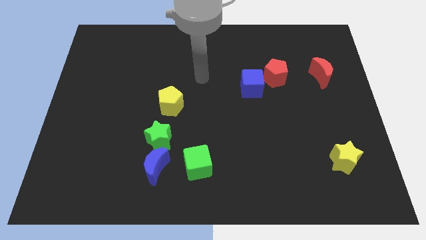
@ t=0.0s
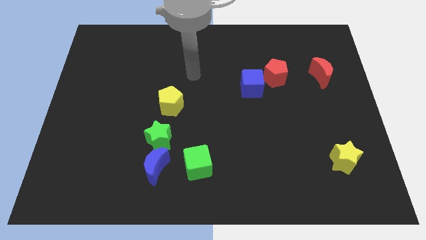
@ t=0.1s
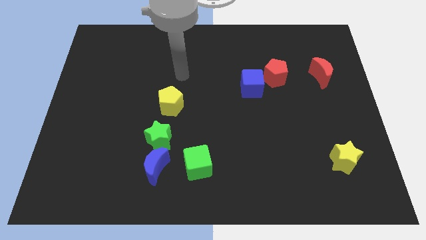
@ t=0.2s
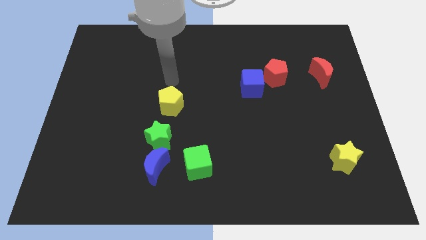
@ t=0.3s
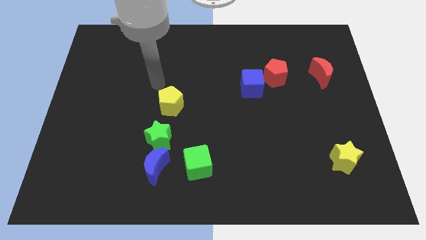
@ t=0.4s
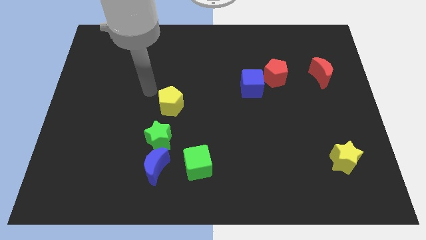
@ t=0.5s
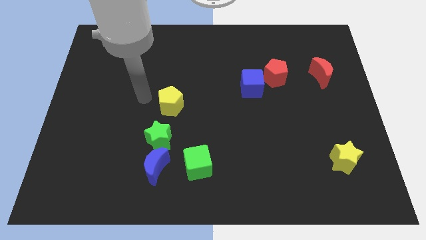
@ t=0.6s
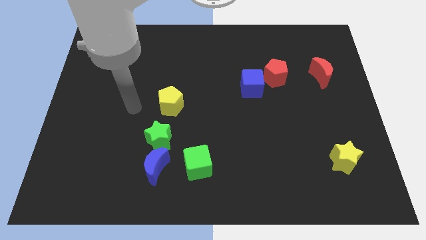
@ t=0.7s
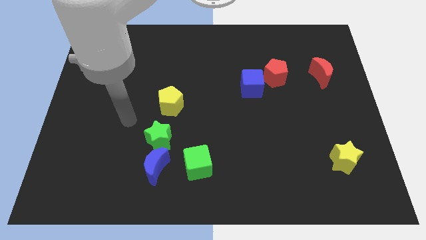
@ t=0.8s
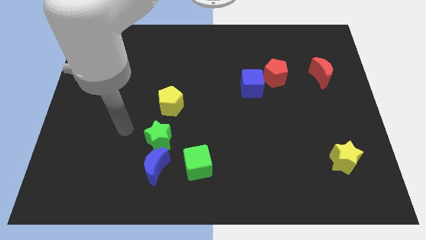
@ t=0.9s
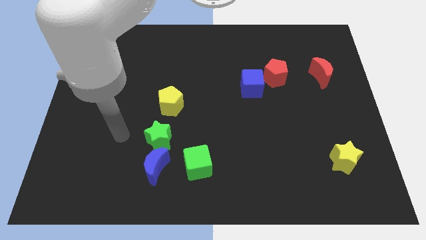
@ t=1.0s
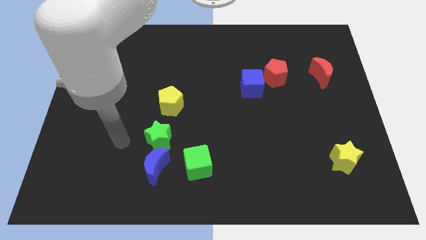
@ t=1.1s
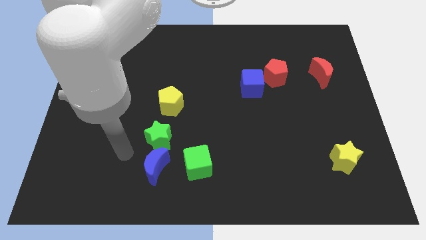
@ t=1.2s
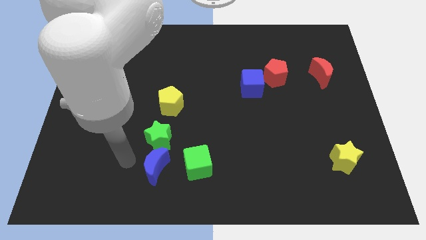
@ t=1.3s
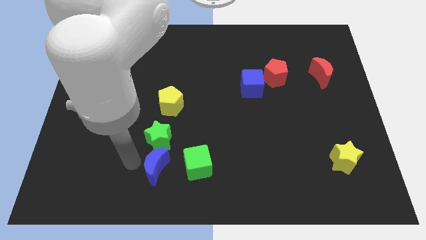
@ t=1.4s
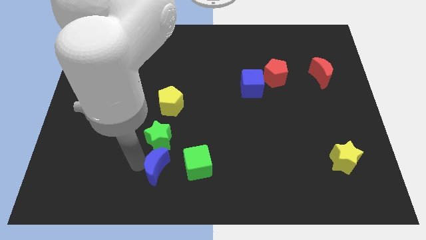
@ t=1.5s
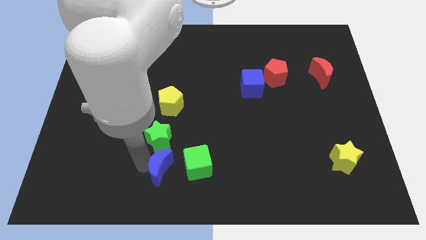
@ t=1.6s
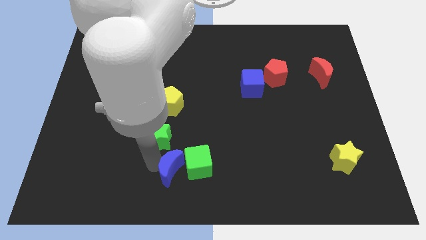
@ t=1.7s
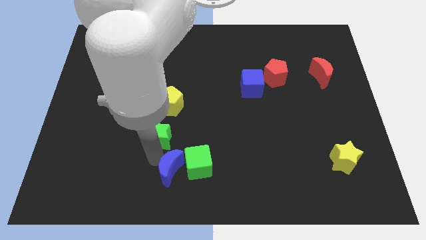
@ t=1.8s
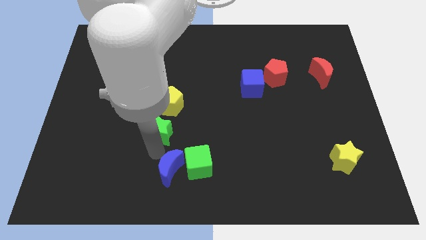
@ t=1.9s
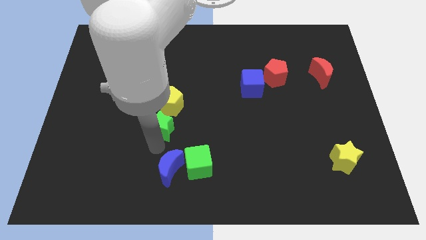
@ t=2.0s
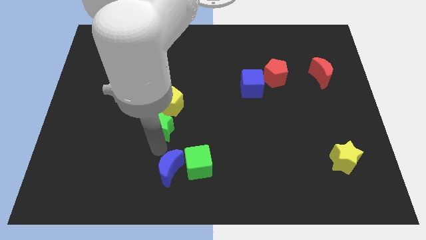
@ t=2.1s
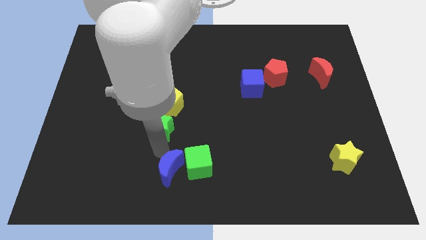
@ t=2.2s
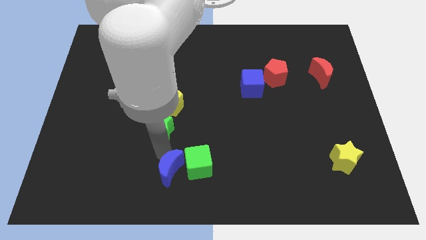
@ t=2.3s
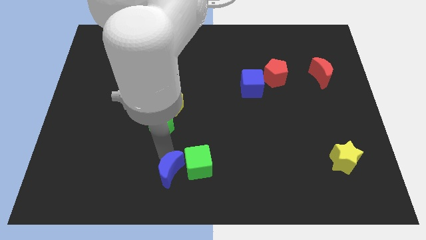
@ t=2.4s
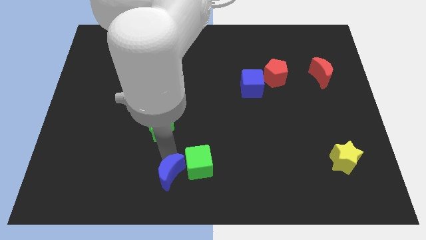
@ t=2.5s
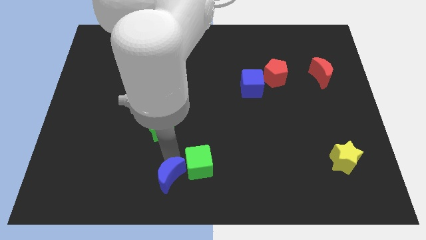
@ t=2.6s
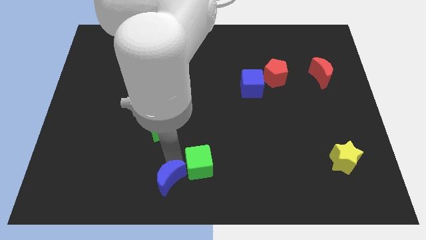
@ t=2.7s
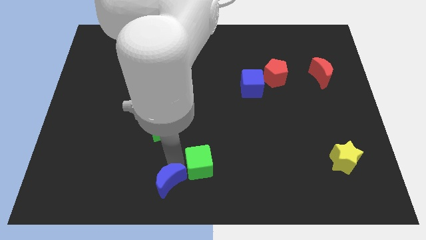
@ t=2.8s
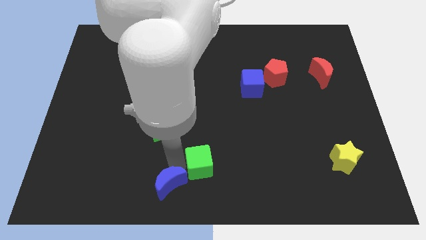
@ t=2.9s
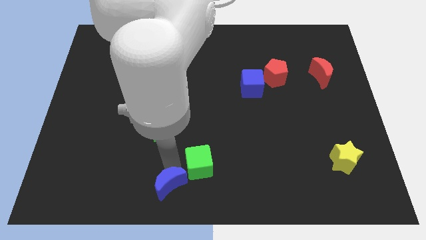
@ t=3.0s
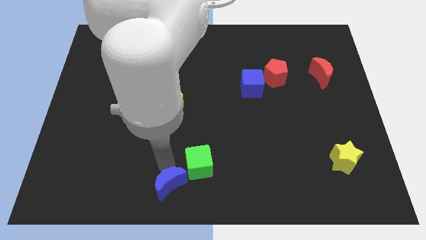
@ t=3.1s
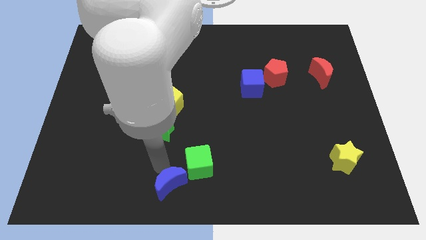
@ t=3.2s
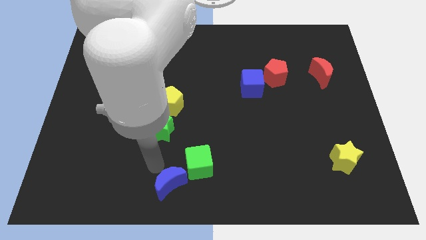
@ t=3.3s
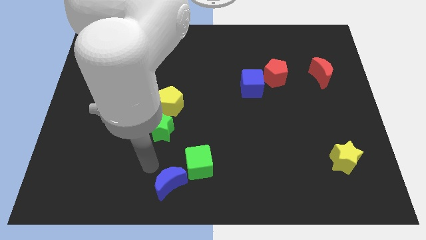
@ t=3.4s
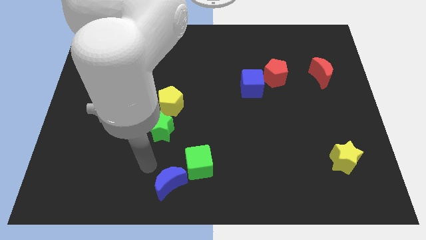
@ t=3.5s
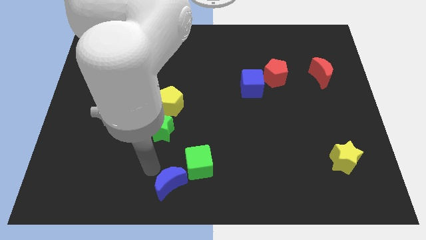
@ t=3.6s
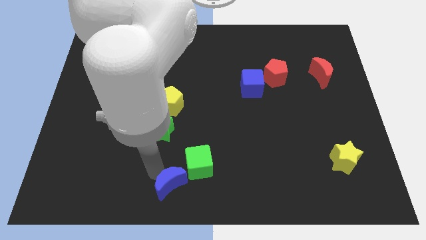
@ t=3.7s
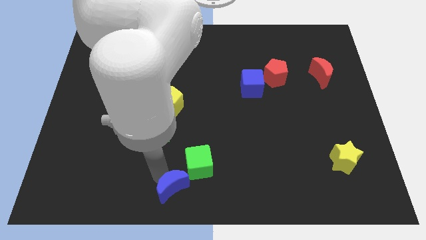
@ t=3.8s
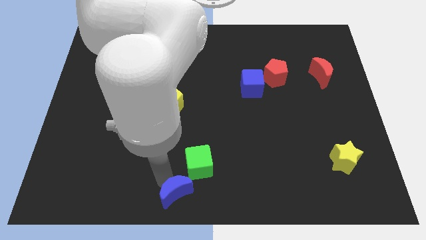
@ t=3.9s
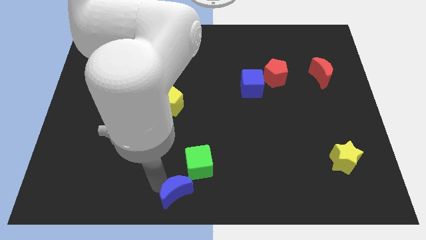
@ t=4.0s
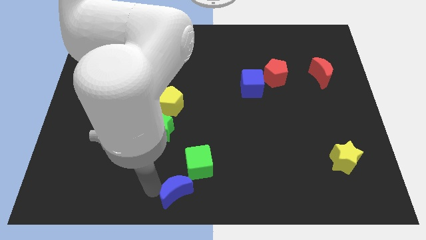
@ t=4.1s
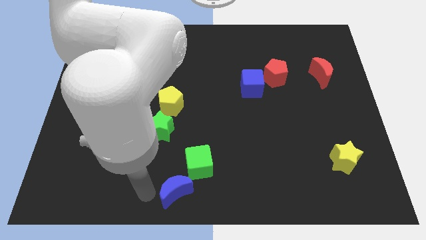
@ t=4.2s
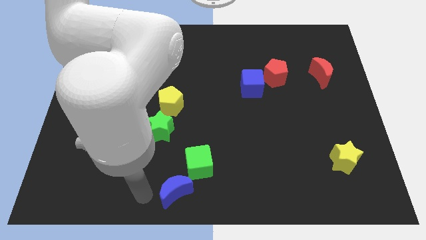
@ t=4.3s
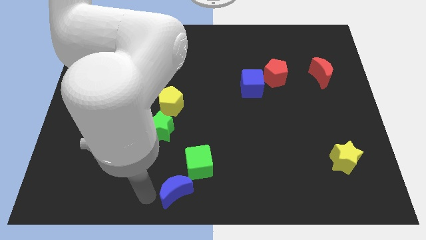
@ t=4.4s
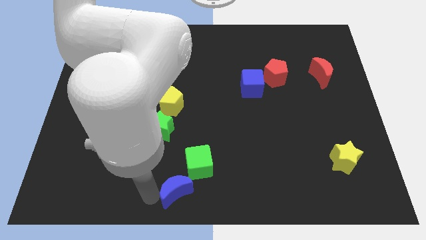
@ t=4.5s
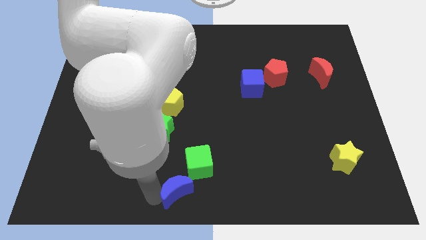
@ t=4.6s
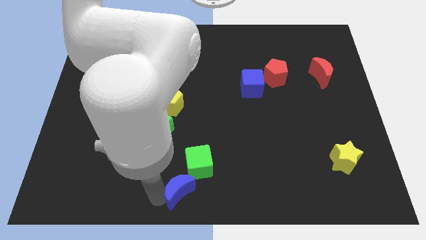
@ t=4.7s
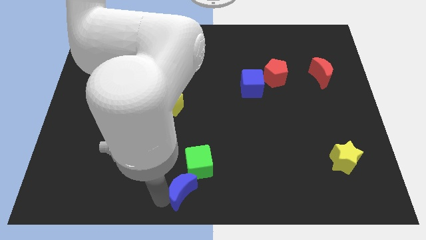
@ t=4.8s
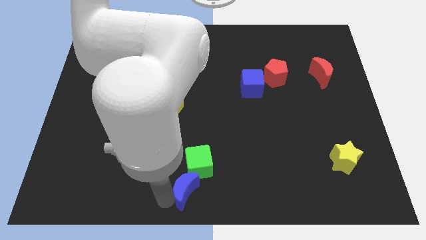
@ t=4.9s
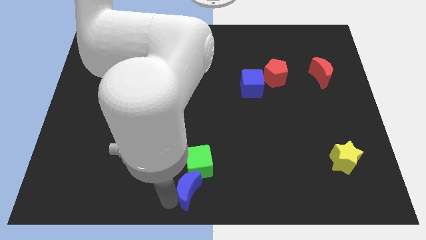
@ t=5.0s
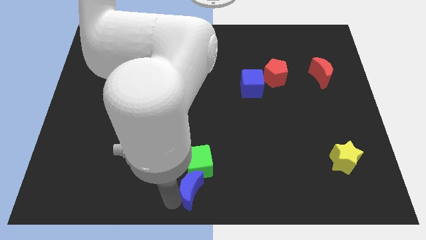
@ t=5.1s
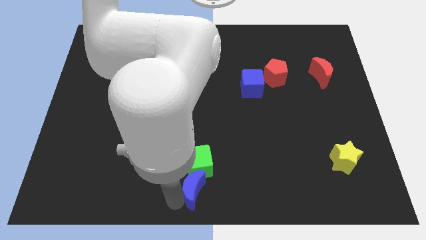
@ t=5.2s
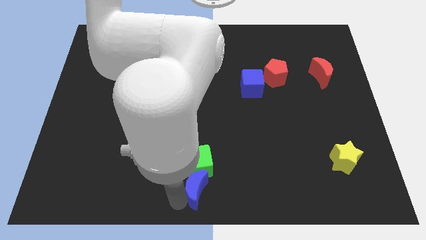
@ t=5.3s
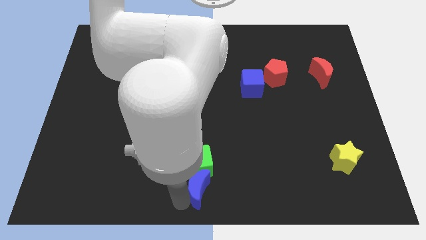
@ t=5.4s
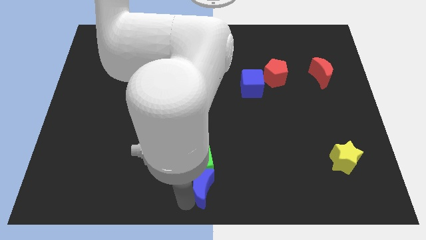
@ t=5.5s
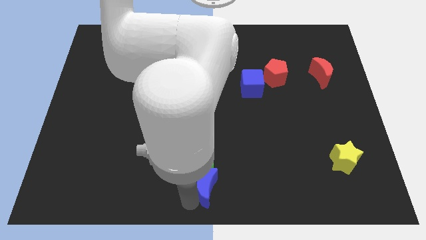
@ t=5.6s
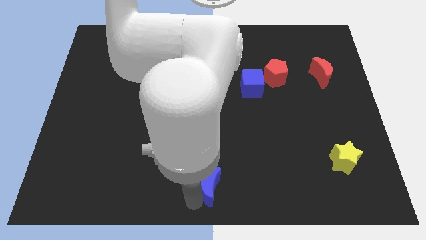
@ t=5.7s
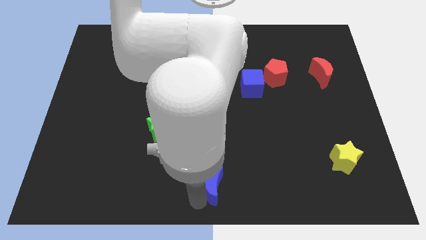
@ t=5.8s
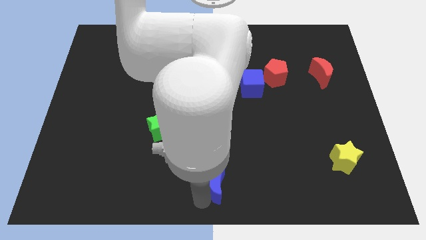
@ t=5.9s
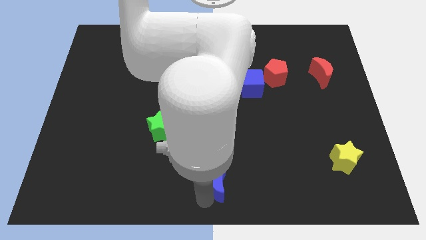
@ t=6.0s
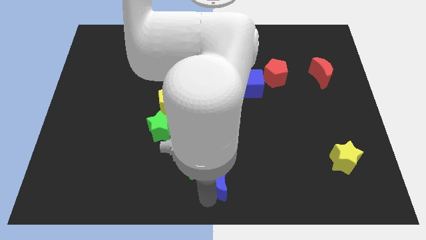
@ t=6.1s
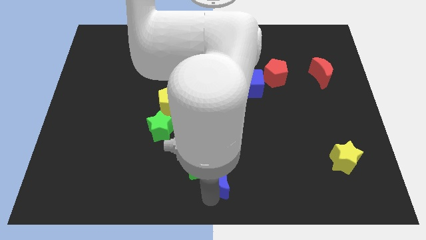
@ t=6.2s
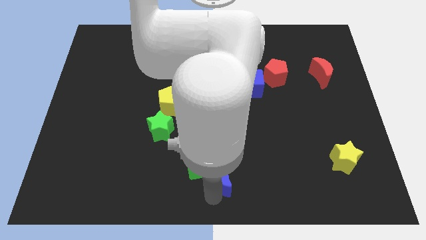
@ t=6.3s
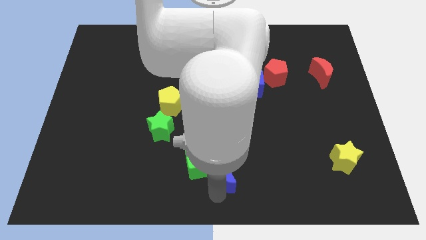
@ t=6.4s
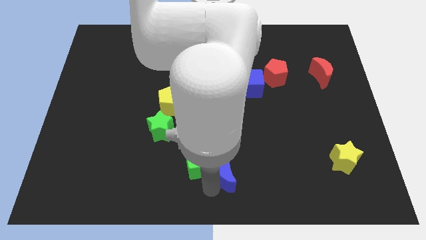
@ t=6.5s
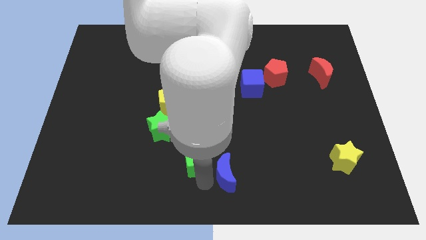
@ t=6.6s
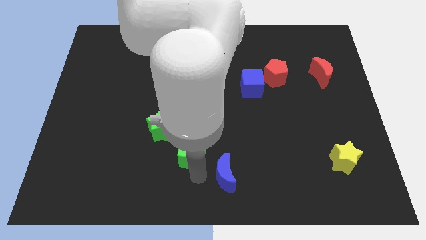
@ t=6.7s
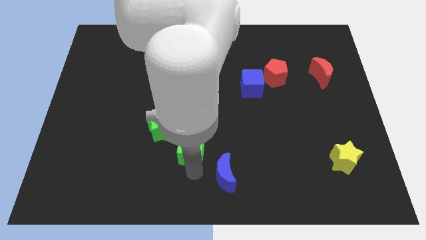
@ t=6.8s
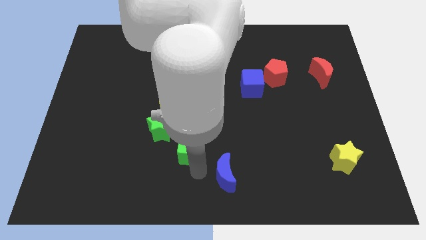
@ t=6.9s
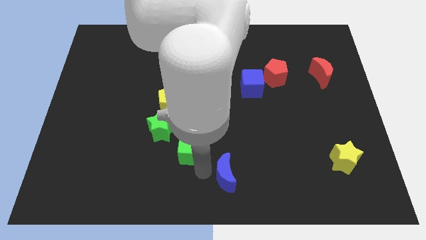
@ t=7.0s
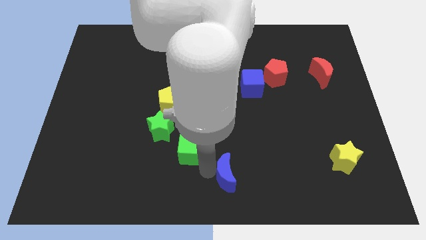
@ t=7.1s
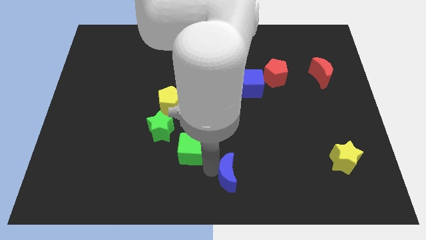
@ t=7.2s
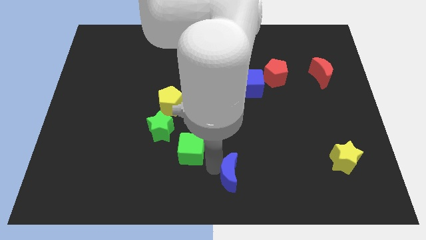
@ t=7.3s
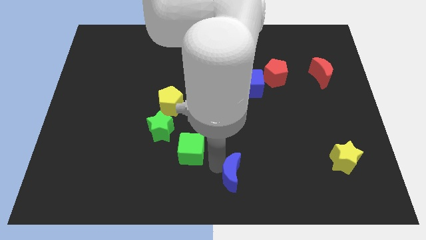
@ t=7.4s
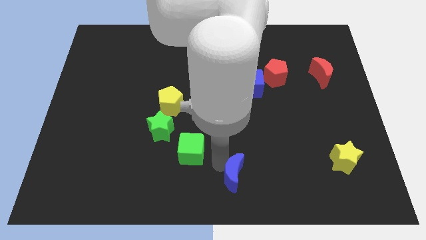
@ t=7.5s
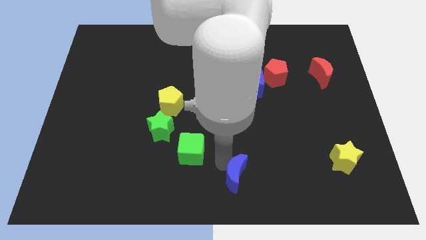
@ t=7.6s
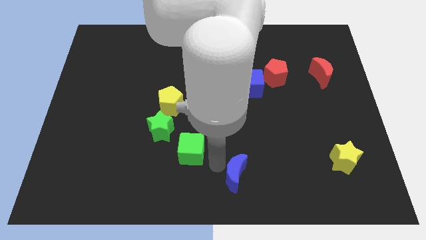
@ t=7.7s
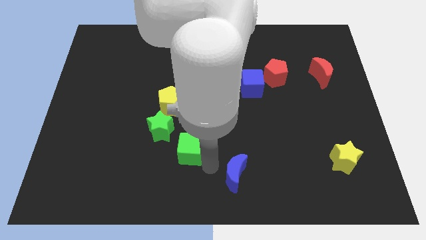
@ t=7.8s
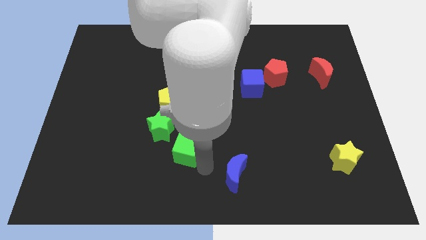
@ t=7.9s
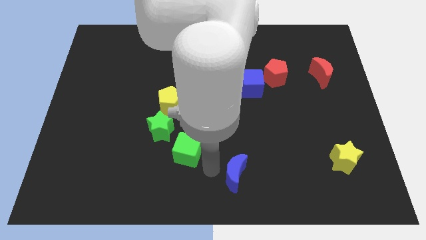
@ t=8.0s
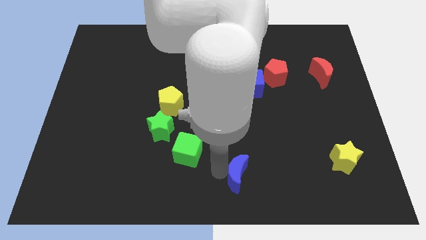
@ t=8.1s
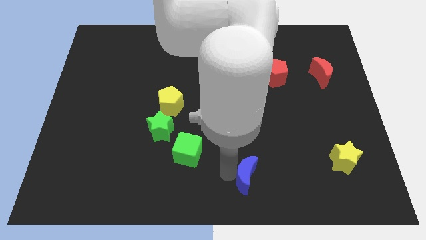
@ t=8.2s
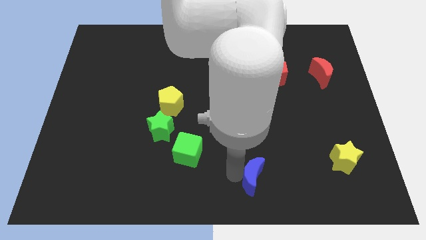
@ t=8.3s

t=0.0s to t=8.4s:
push the blue moon right
